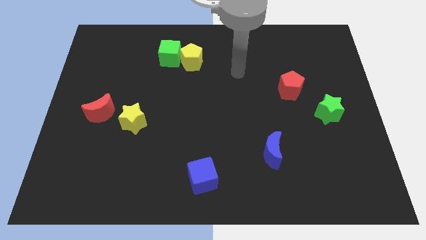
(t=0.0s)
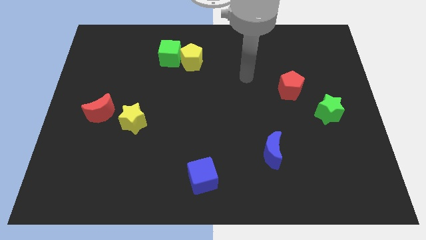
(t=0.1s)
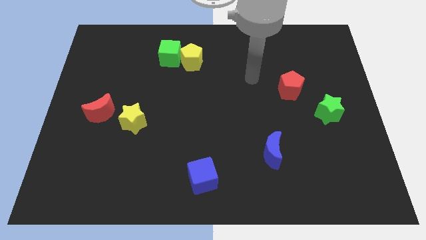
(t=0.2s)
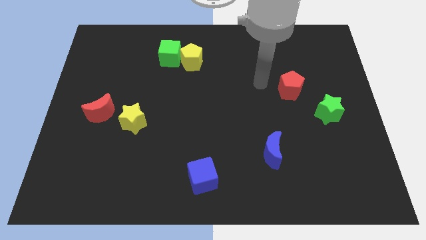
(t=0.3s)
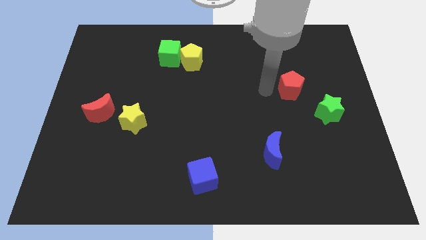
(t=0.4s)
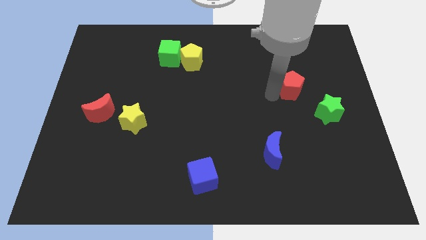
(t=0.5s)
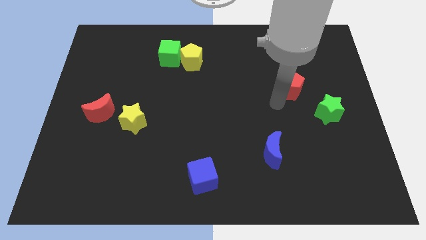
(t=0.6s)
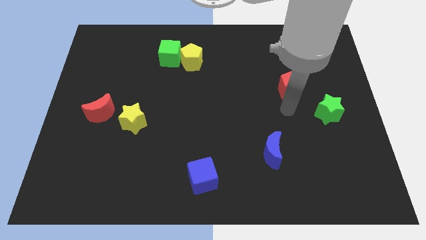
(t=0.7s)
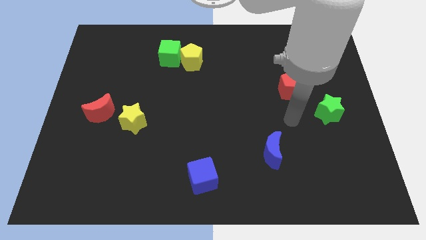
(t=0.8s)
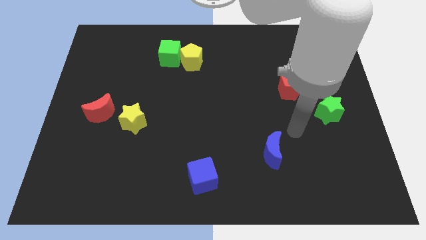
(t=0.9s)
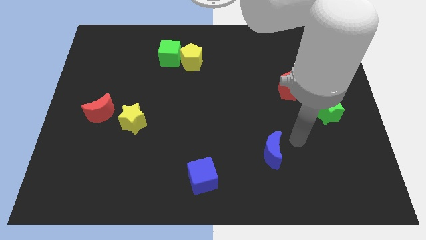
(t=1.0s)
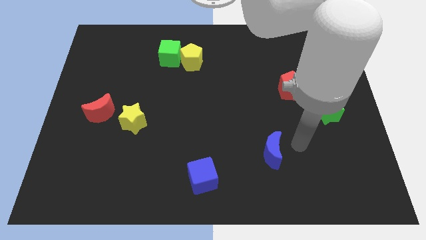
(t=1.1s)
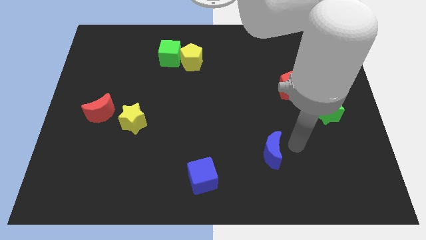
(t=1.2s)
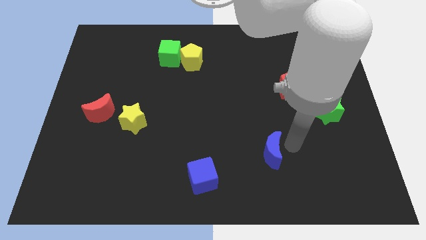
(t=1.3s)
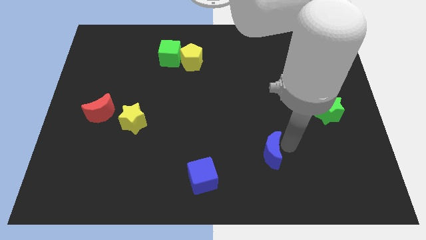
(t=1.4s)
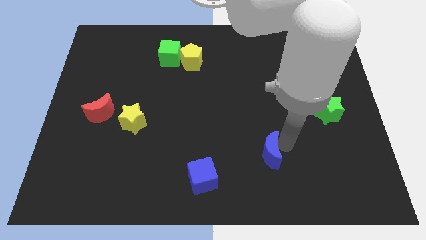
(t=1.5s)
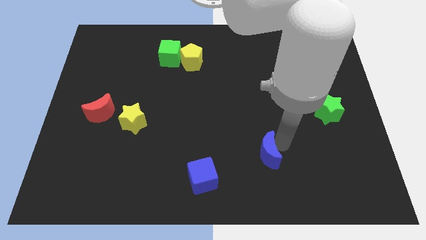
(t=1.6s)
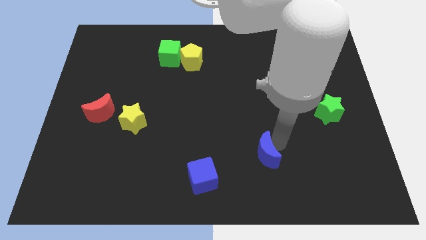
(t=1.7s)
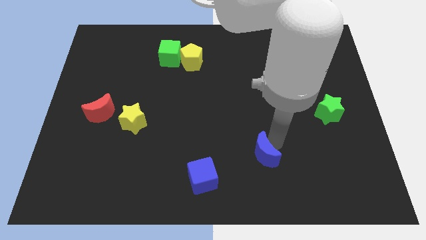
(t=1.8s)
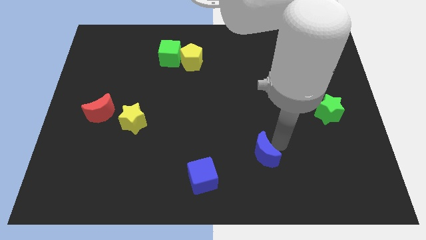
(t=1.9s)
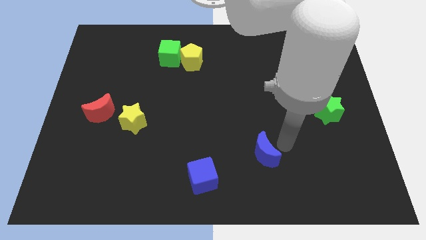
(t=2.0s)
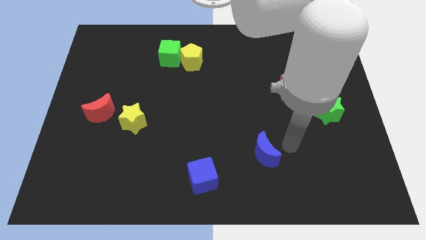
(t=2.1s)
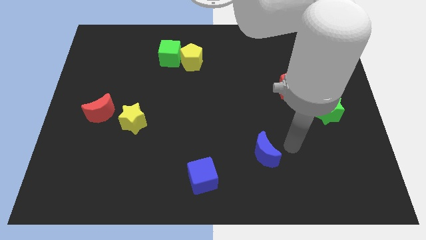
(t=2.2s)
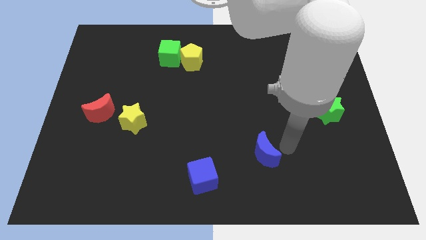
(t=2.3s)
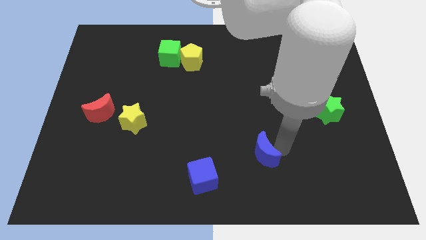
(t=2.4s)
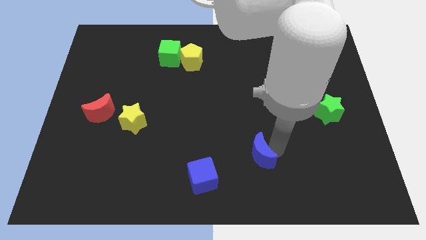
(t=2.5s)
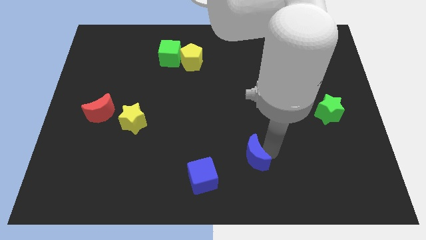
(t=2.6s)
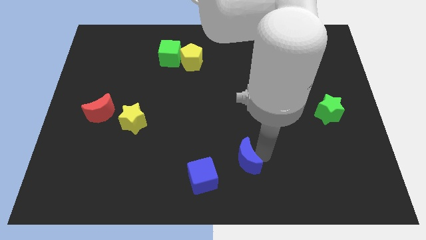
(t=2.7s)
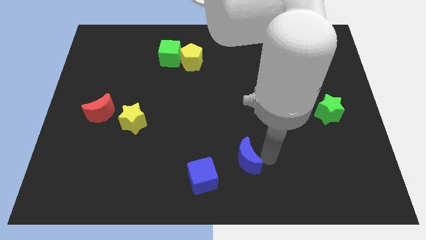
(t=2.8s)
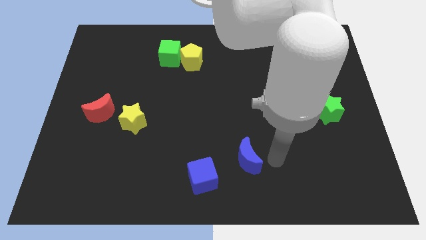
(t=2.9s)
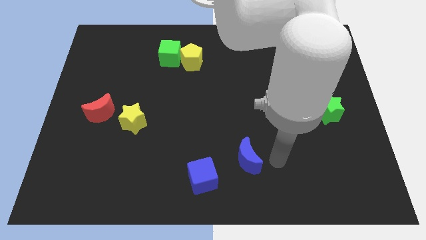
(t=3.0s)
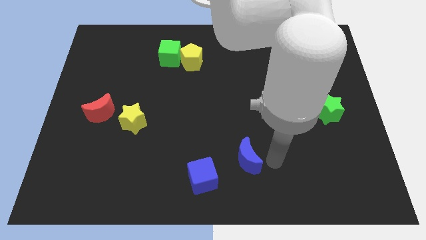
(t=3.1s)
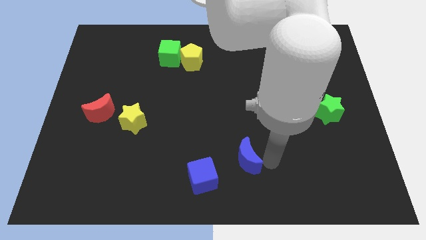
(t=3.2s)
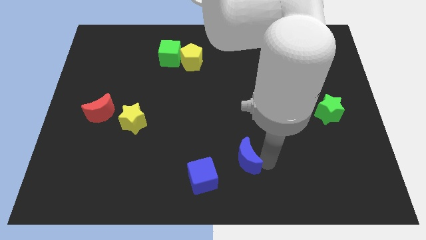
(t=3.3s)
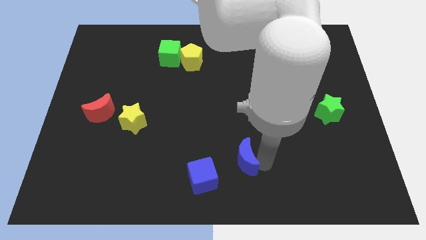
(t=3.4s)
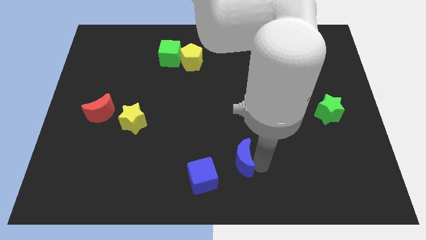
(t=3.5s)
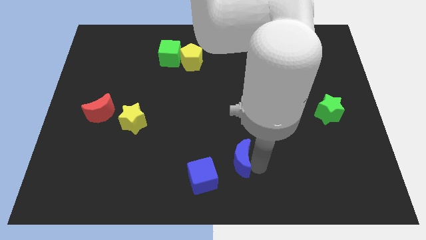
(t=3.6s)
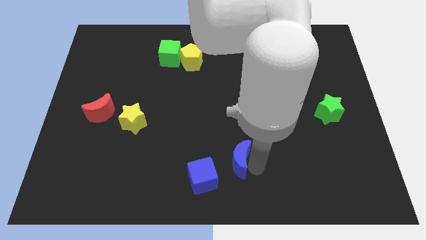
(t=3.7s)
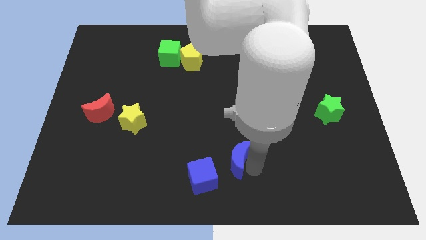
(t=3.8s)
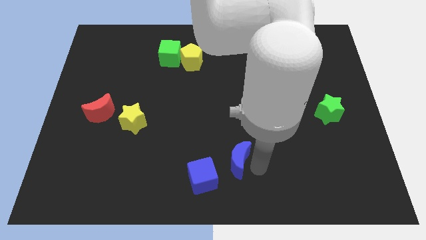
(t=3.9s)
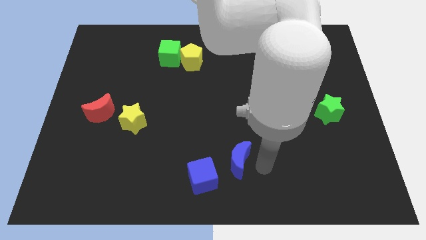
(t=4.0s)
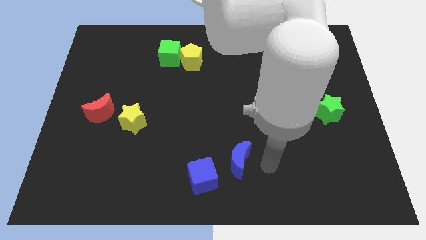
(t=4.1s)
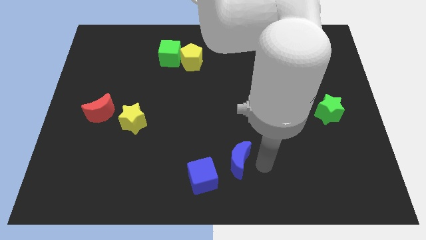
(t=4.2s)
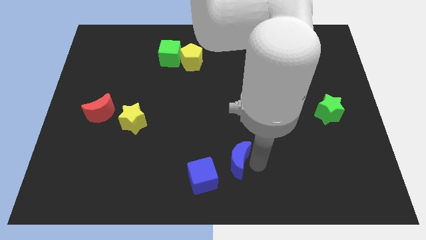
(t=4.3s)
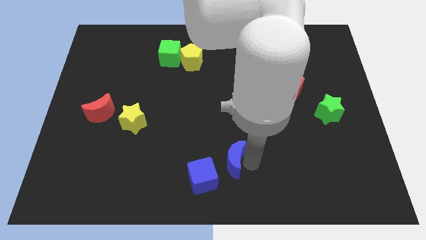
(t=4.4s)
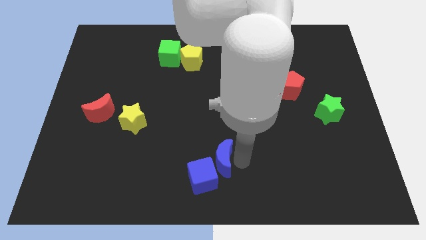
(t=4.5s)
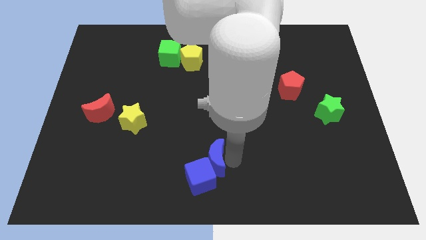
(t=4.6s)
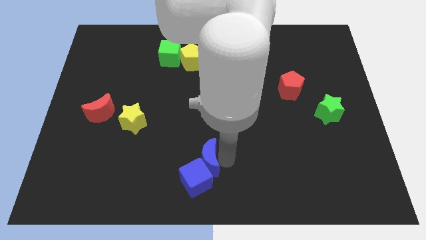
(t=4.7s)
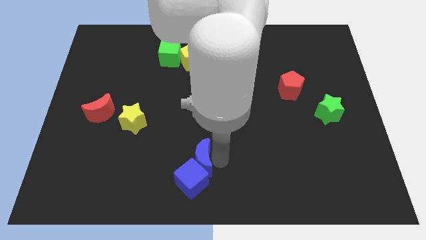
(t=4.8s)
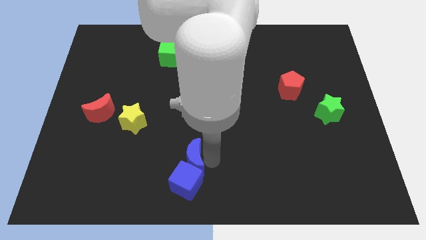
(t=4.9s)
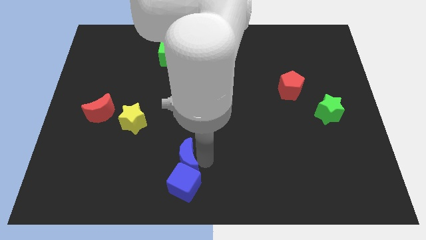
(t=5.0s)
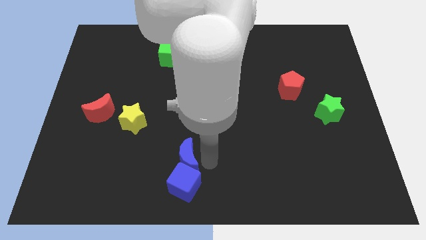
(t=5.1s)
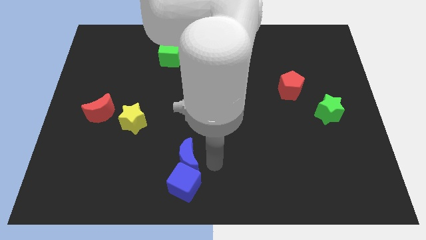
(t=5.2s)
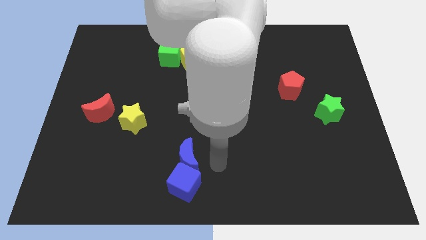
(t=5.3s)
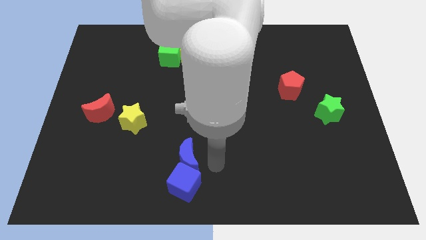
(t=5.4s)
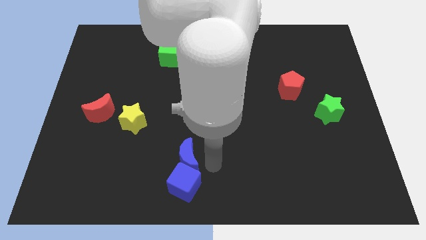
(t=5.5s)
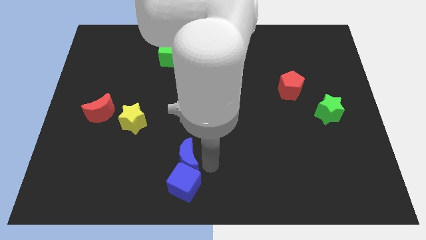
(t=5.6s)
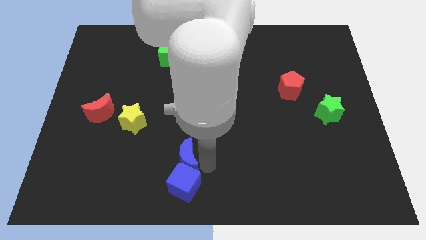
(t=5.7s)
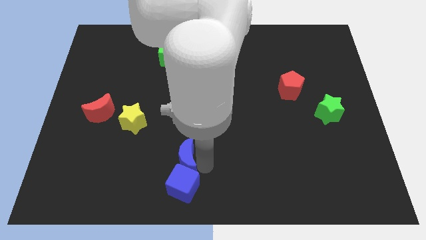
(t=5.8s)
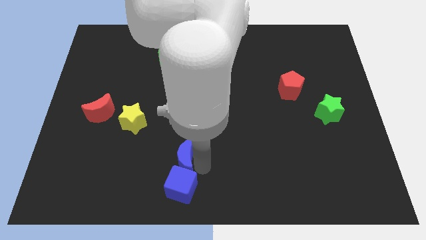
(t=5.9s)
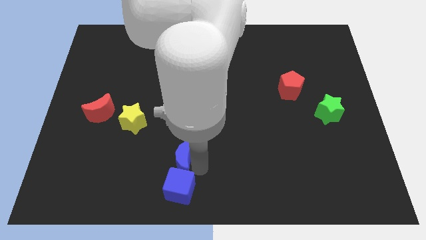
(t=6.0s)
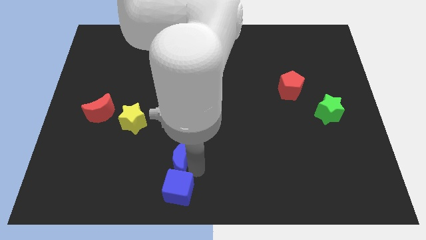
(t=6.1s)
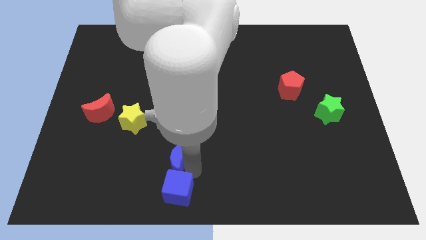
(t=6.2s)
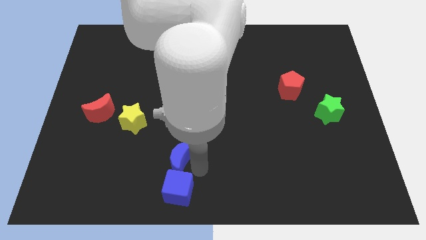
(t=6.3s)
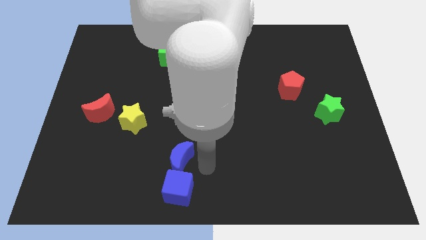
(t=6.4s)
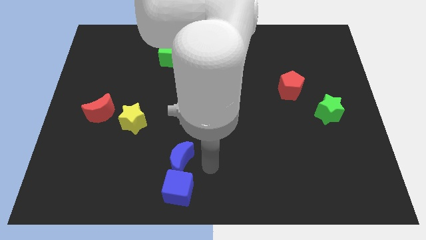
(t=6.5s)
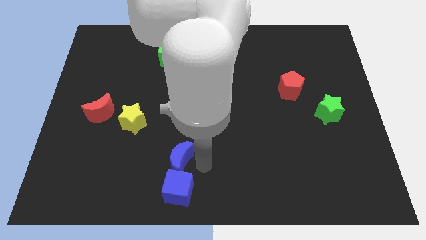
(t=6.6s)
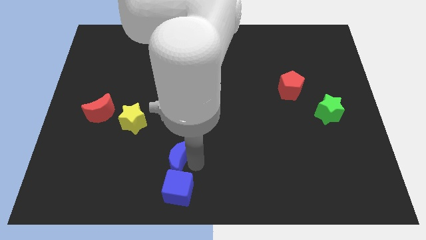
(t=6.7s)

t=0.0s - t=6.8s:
slide the blue moon left

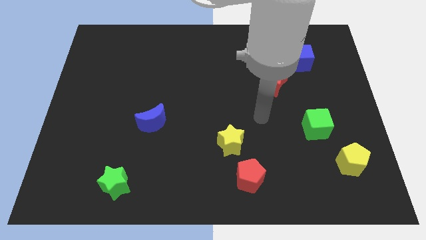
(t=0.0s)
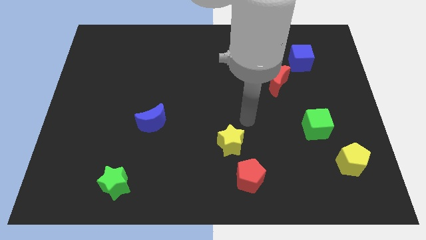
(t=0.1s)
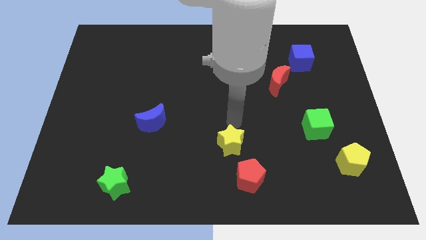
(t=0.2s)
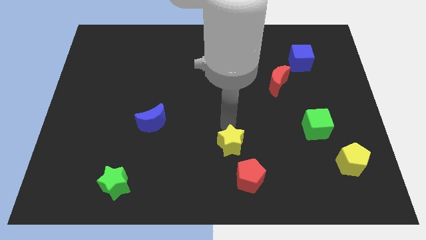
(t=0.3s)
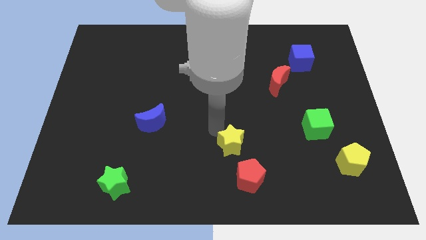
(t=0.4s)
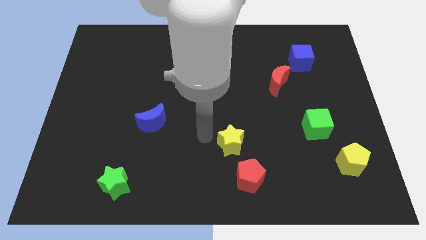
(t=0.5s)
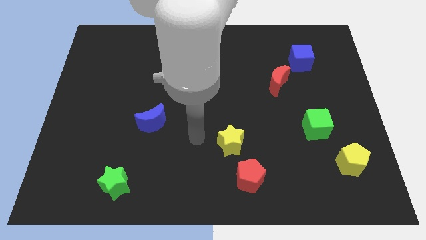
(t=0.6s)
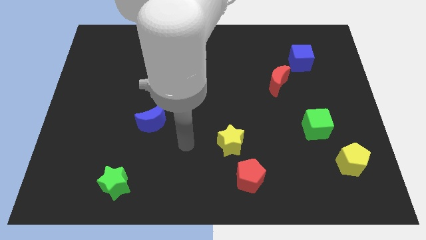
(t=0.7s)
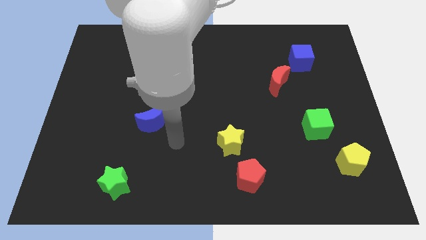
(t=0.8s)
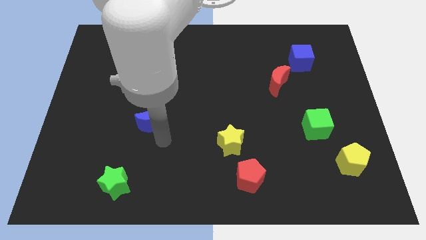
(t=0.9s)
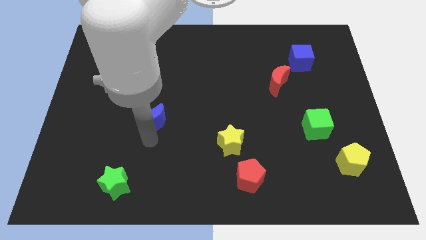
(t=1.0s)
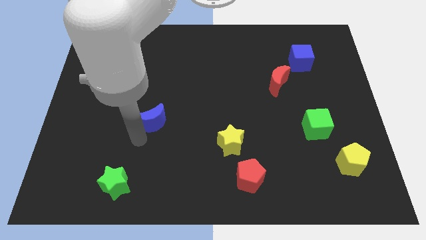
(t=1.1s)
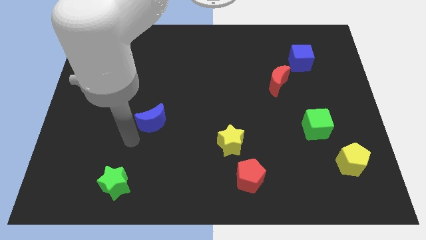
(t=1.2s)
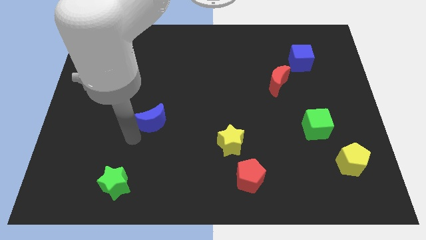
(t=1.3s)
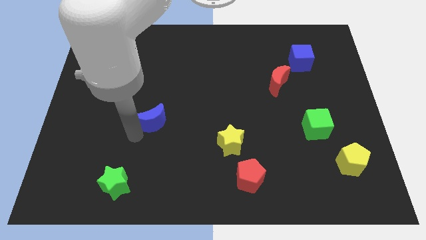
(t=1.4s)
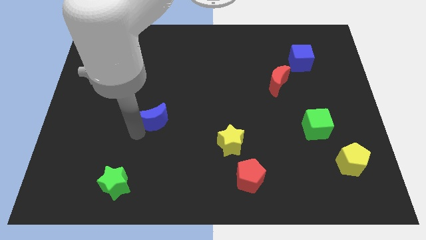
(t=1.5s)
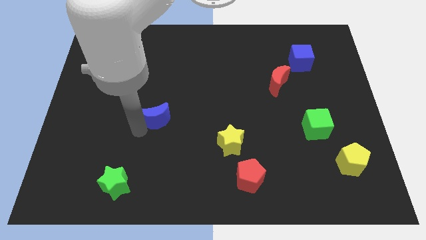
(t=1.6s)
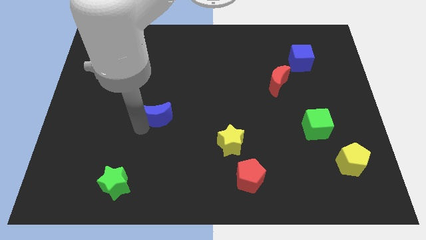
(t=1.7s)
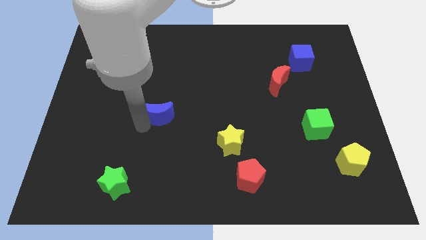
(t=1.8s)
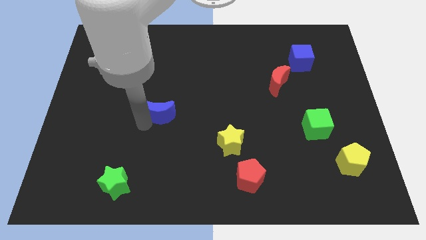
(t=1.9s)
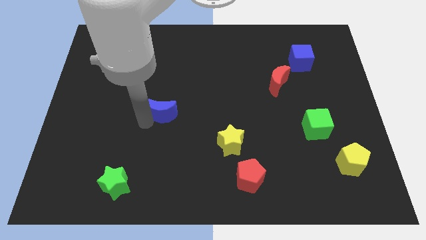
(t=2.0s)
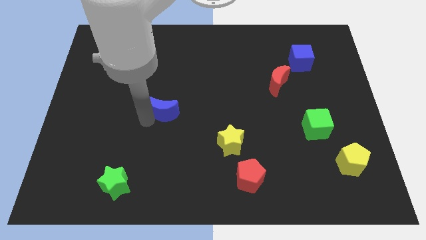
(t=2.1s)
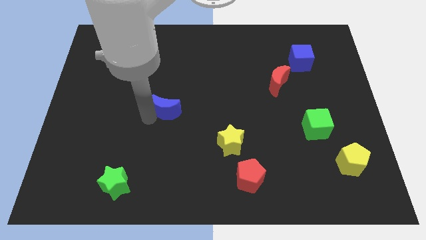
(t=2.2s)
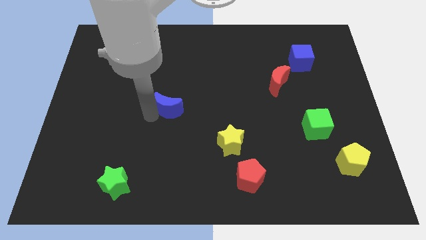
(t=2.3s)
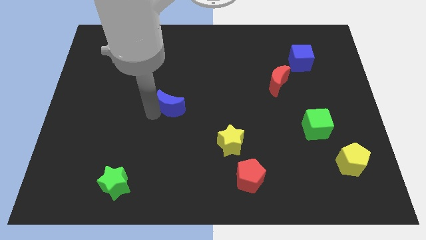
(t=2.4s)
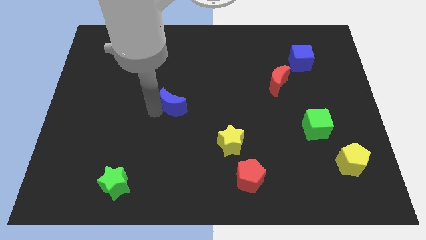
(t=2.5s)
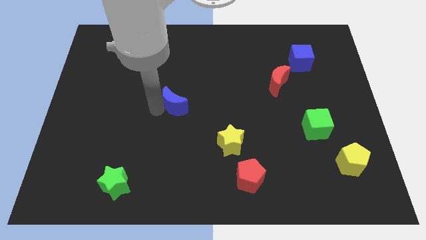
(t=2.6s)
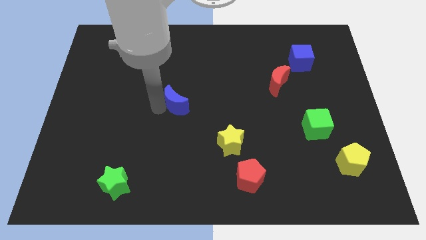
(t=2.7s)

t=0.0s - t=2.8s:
slightly move the blue moon upwards and to the right
